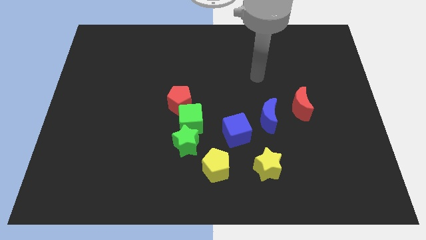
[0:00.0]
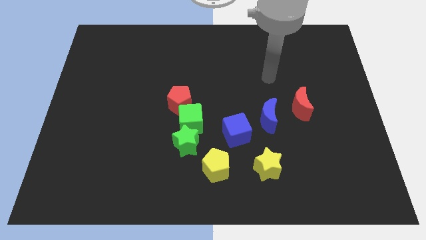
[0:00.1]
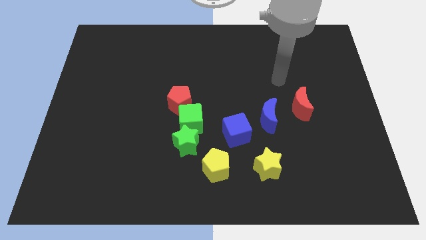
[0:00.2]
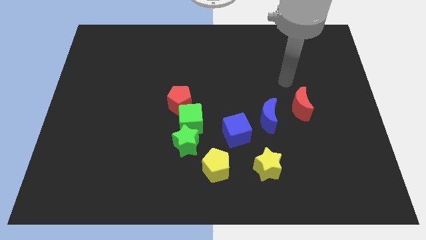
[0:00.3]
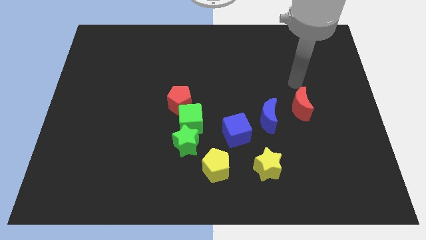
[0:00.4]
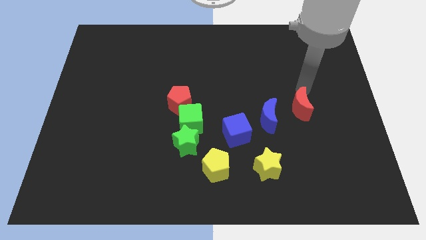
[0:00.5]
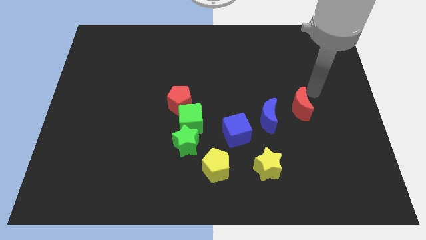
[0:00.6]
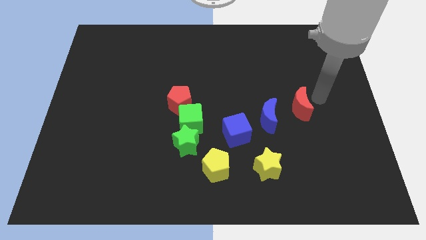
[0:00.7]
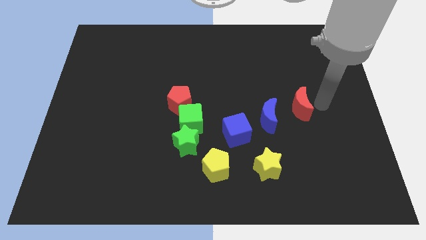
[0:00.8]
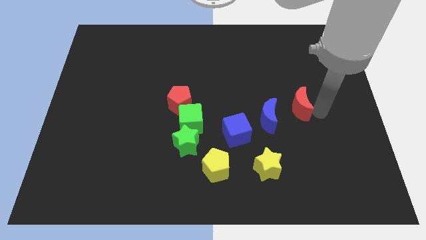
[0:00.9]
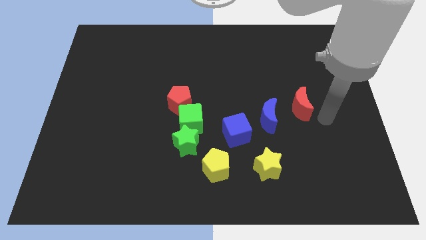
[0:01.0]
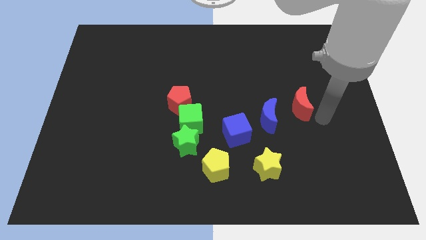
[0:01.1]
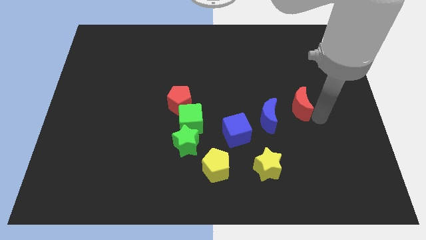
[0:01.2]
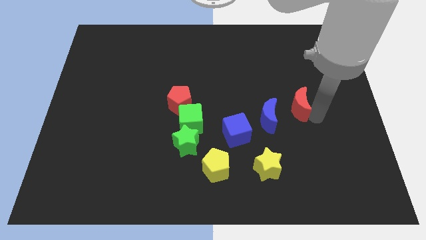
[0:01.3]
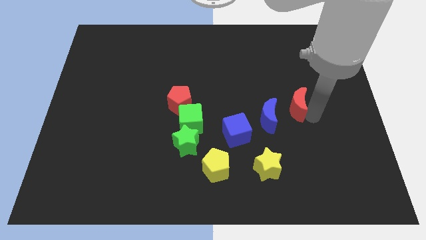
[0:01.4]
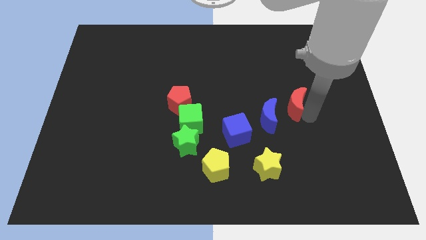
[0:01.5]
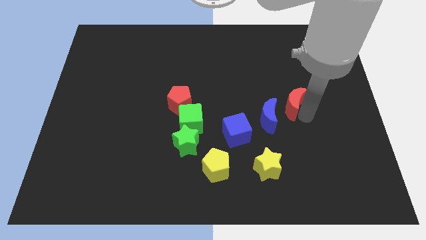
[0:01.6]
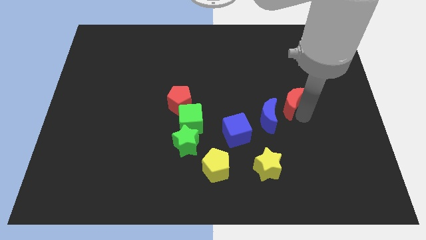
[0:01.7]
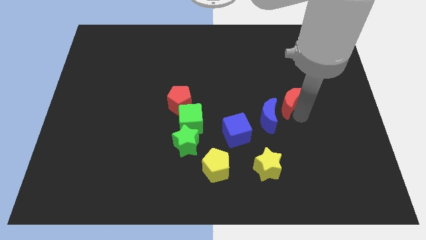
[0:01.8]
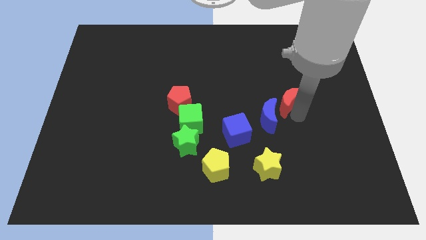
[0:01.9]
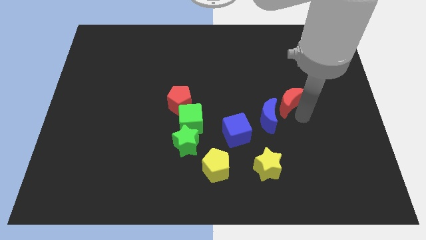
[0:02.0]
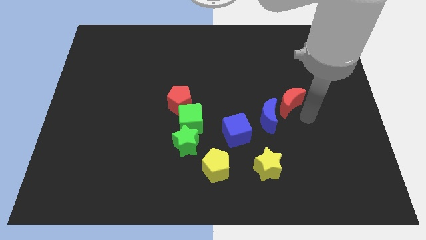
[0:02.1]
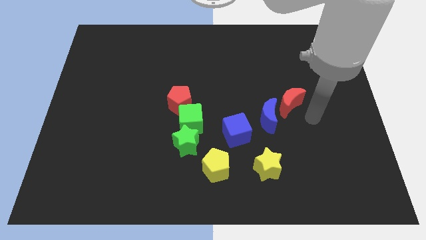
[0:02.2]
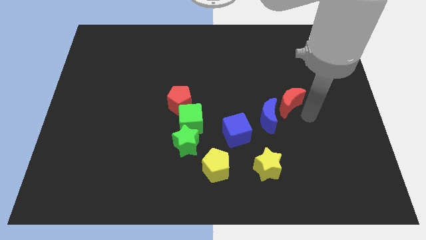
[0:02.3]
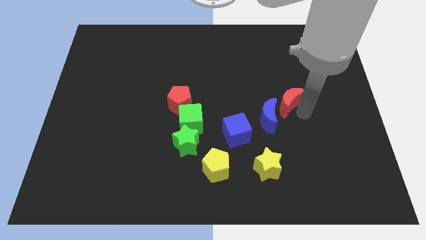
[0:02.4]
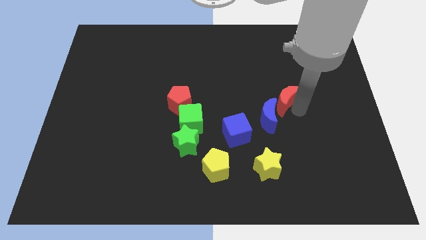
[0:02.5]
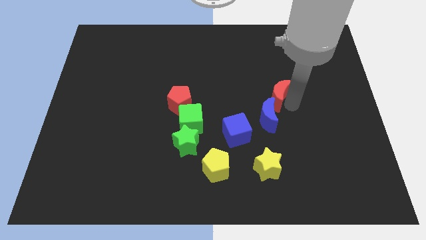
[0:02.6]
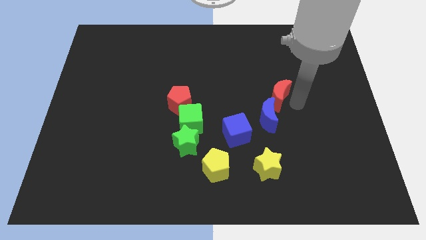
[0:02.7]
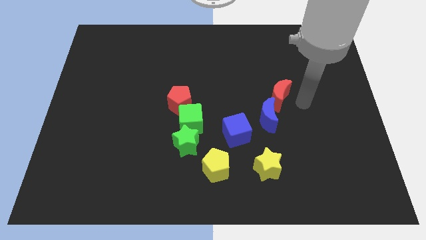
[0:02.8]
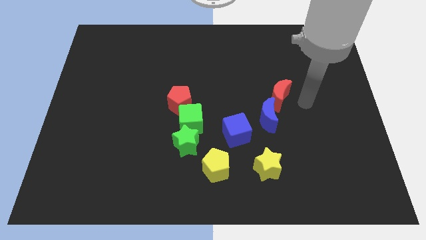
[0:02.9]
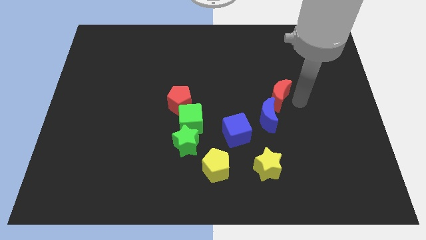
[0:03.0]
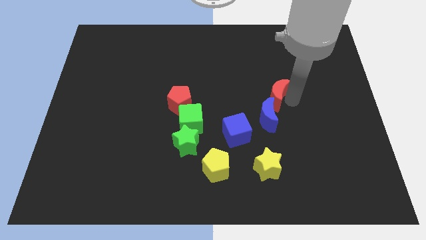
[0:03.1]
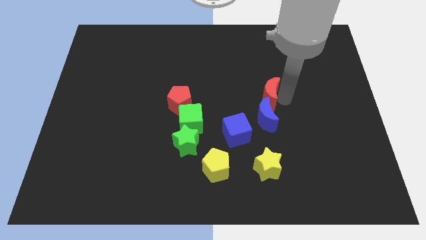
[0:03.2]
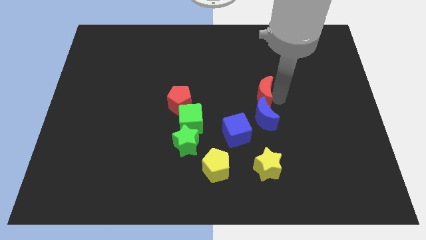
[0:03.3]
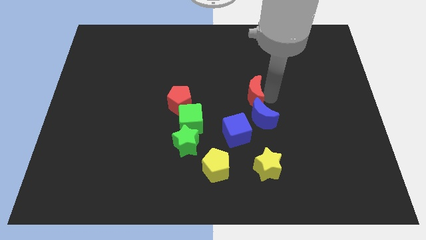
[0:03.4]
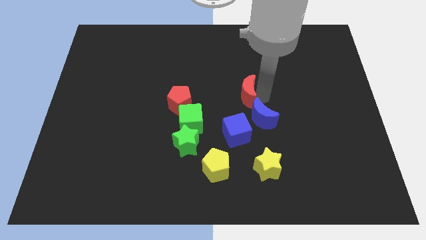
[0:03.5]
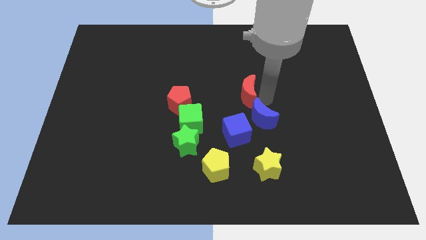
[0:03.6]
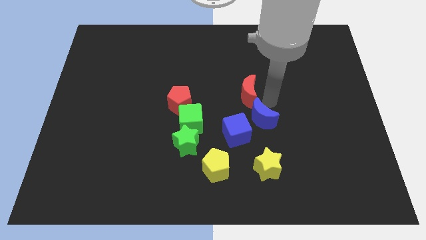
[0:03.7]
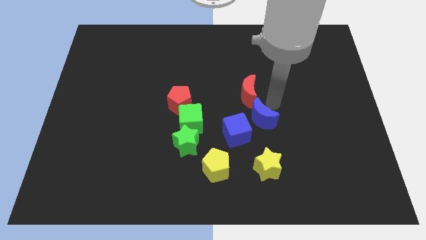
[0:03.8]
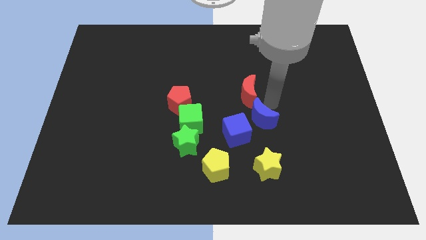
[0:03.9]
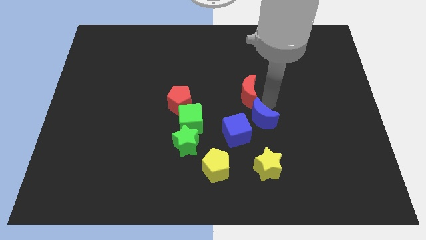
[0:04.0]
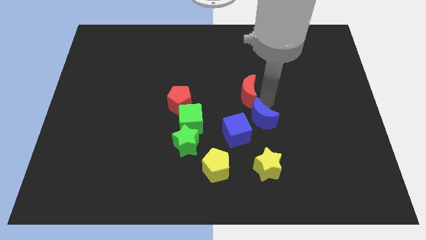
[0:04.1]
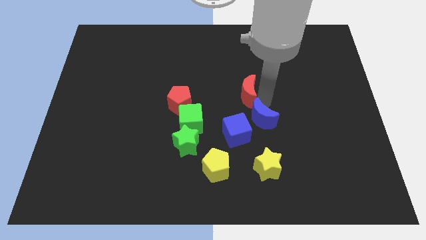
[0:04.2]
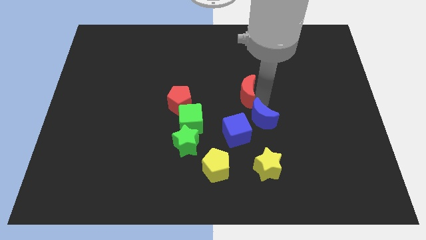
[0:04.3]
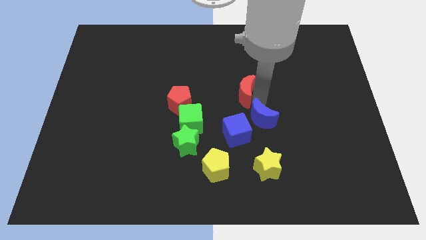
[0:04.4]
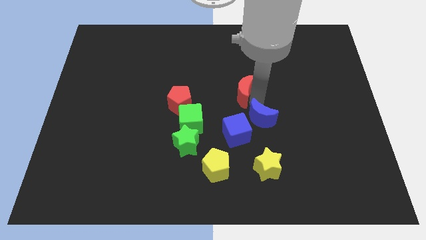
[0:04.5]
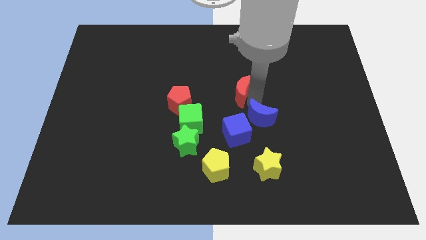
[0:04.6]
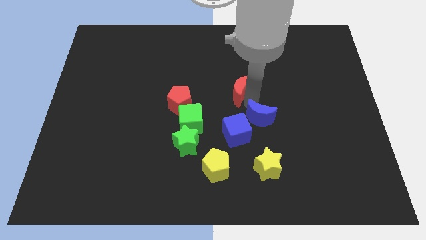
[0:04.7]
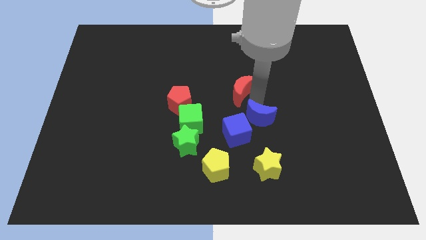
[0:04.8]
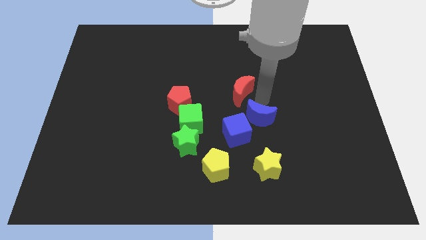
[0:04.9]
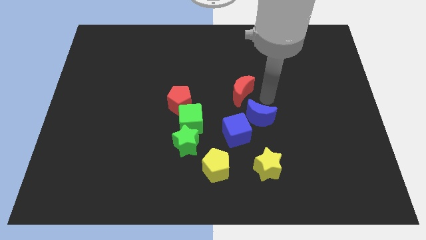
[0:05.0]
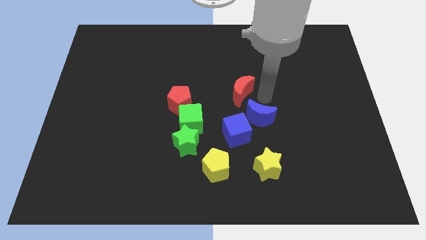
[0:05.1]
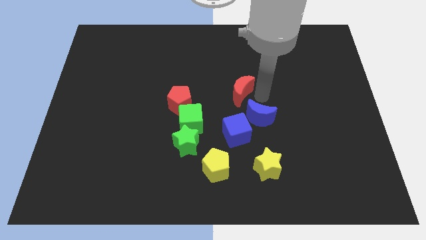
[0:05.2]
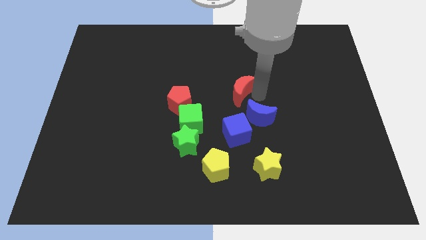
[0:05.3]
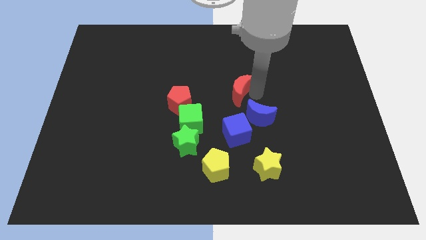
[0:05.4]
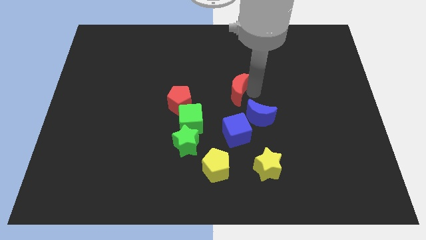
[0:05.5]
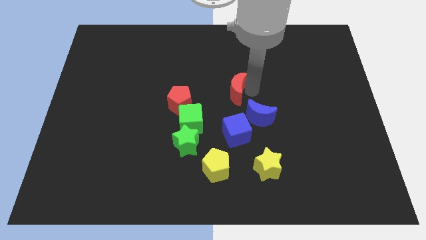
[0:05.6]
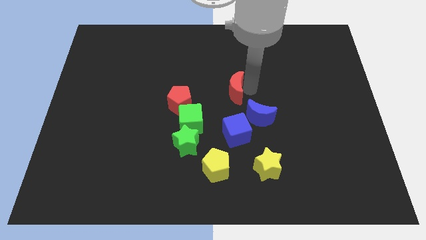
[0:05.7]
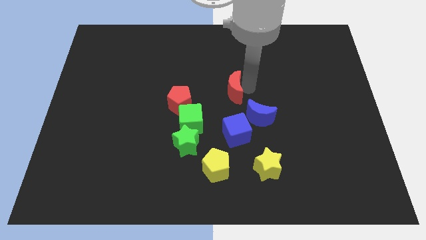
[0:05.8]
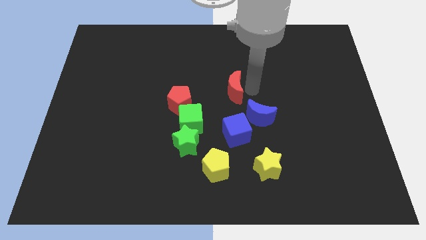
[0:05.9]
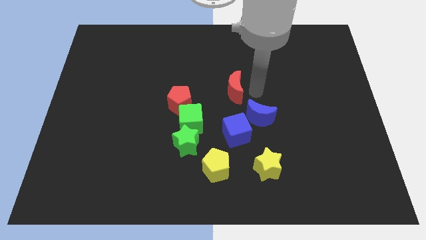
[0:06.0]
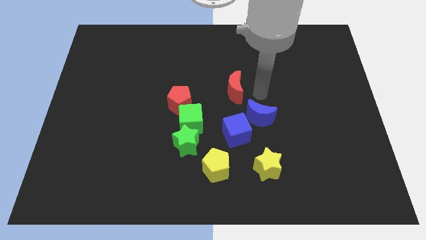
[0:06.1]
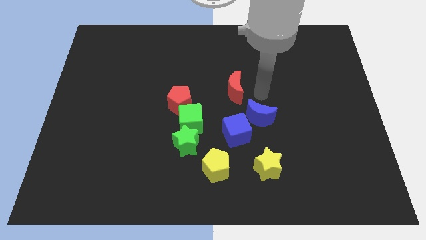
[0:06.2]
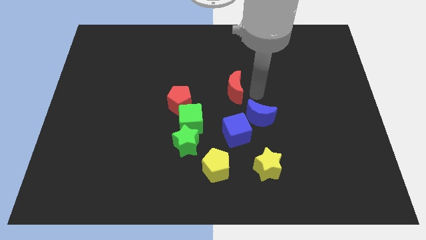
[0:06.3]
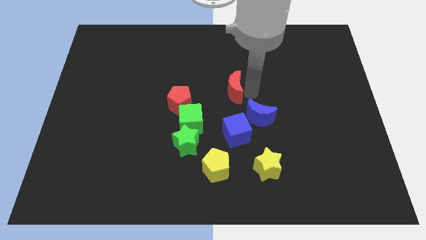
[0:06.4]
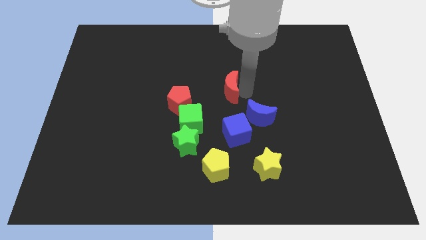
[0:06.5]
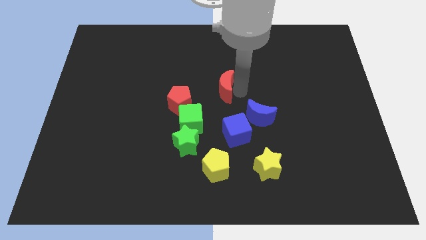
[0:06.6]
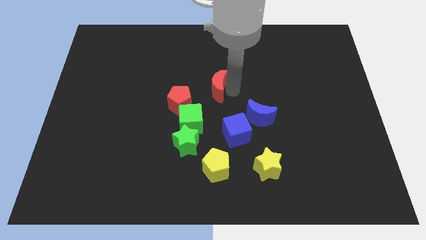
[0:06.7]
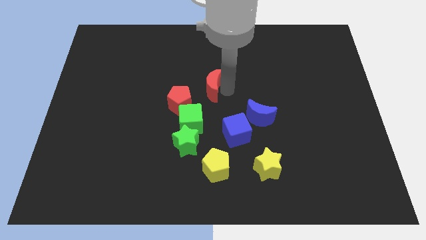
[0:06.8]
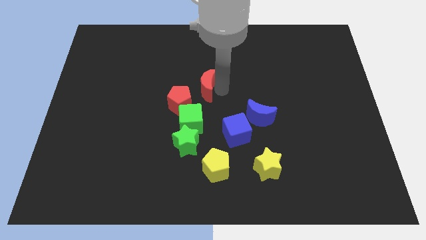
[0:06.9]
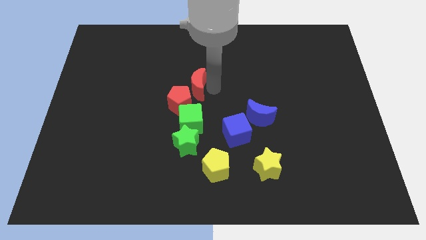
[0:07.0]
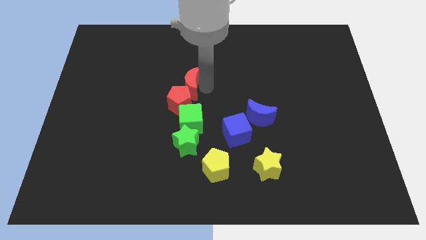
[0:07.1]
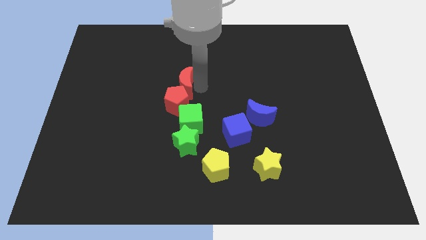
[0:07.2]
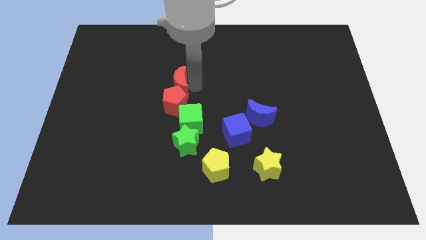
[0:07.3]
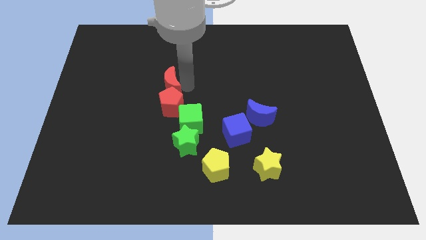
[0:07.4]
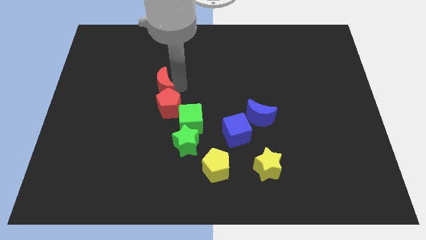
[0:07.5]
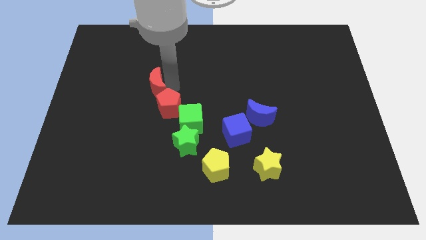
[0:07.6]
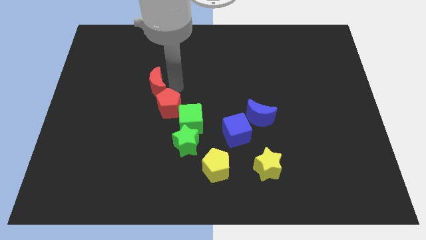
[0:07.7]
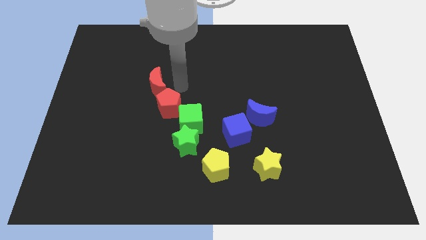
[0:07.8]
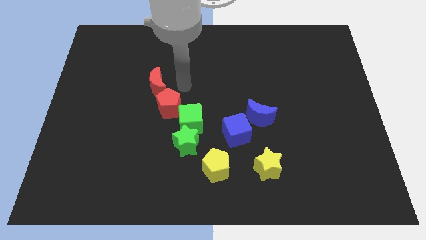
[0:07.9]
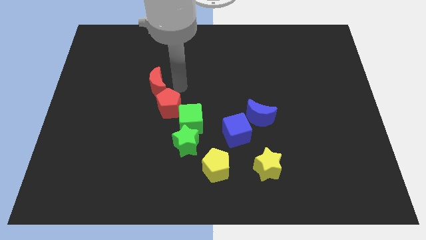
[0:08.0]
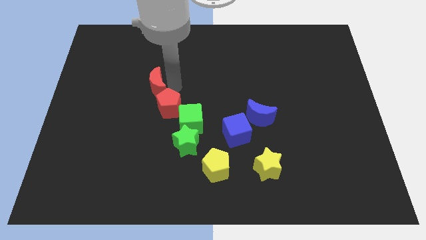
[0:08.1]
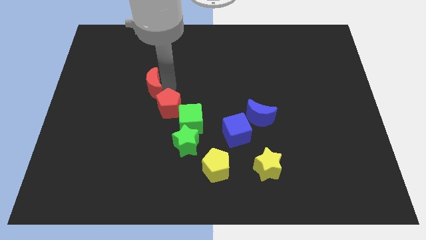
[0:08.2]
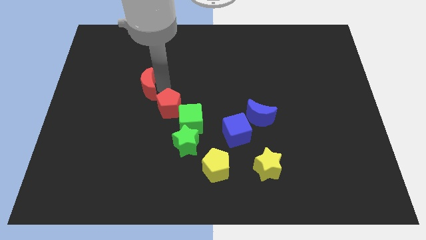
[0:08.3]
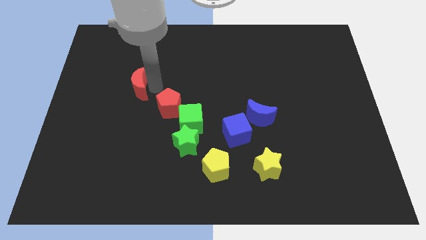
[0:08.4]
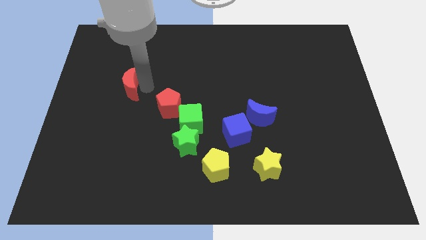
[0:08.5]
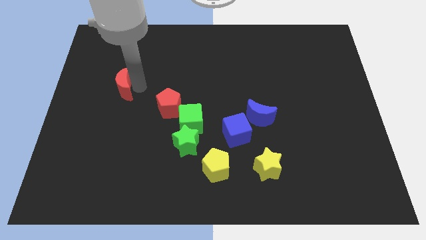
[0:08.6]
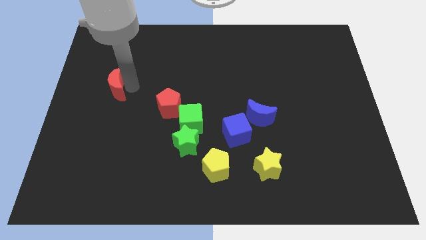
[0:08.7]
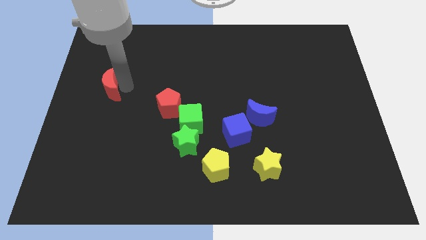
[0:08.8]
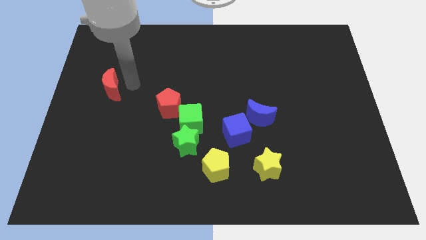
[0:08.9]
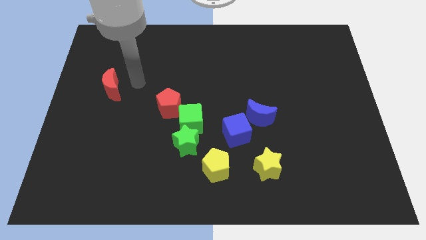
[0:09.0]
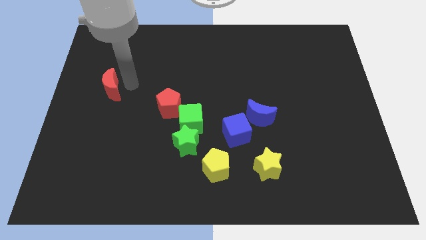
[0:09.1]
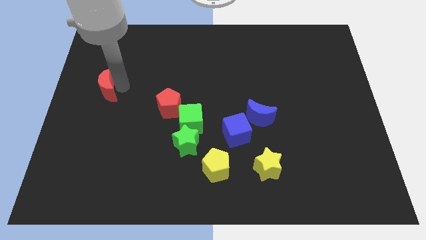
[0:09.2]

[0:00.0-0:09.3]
move the red moon to the left side of the board
